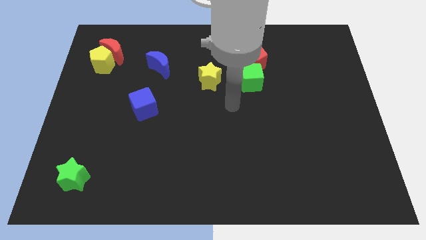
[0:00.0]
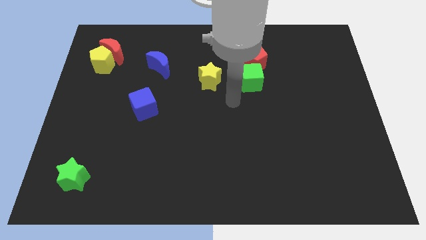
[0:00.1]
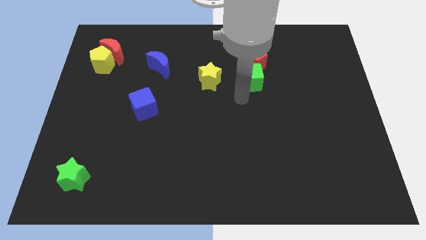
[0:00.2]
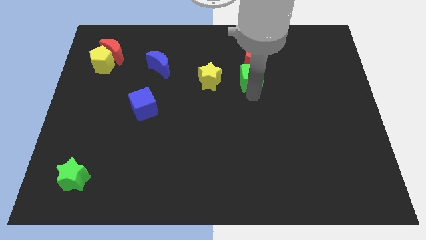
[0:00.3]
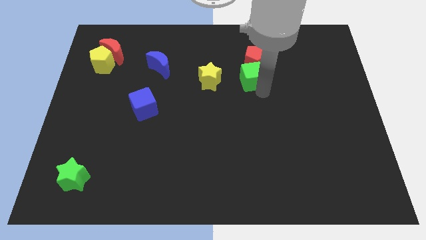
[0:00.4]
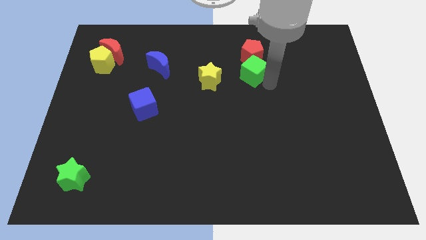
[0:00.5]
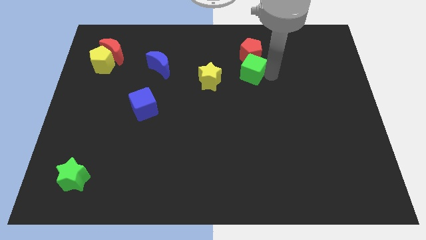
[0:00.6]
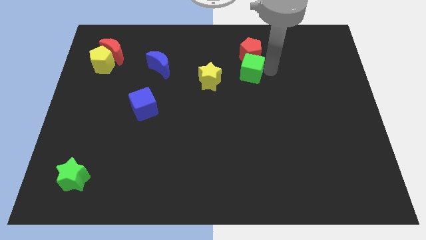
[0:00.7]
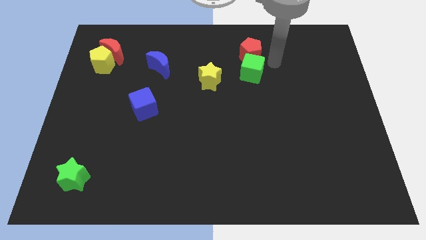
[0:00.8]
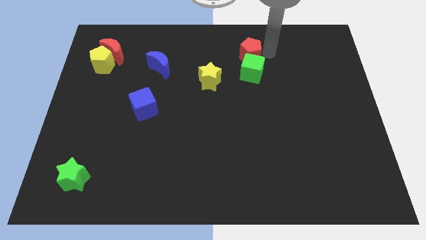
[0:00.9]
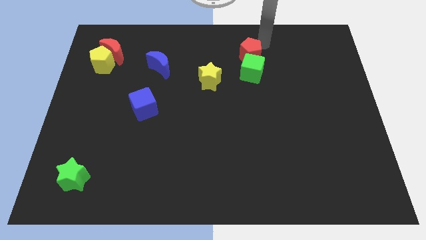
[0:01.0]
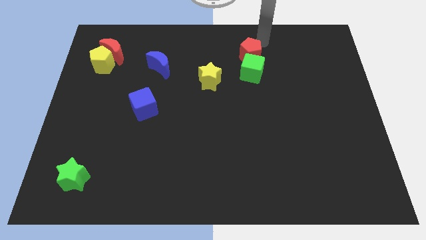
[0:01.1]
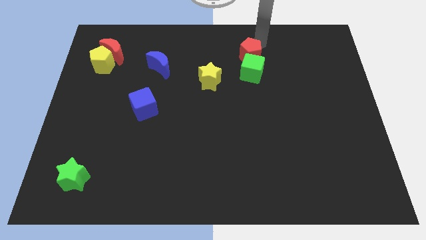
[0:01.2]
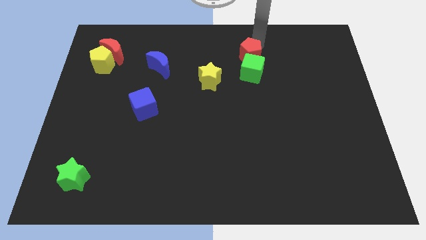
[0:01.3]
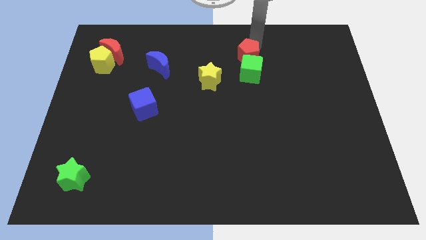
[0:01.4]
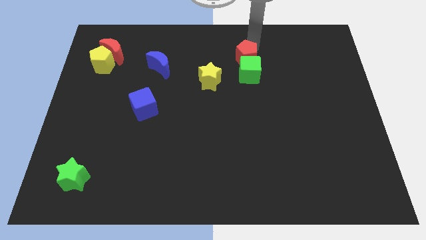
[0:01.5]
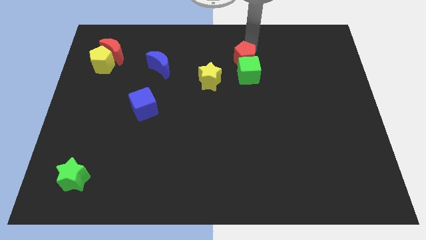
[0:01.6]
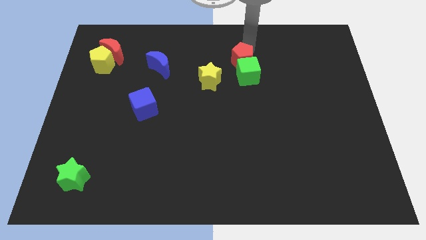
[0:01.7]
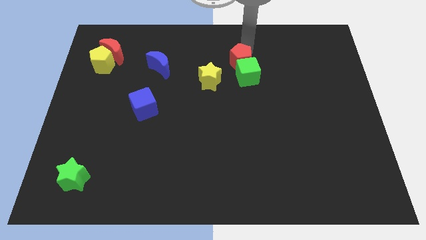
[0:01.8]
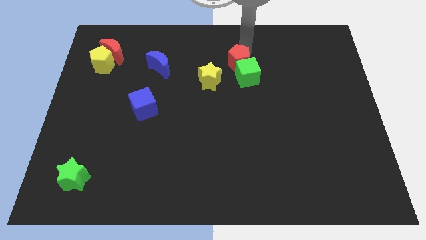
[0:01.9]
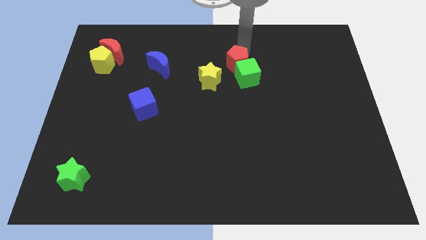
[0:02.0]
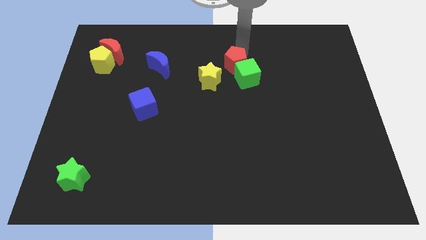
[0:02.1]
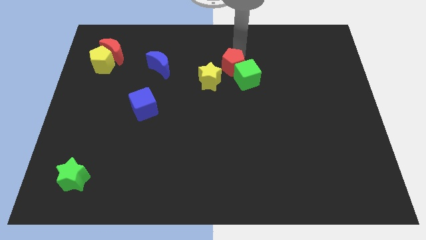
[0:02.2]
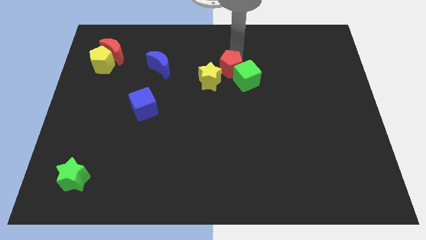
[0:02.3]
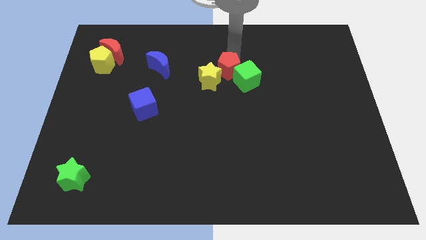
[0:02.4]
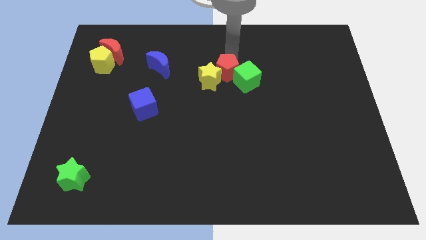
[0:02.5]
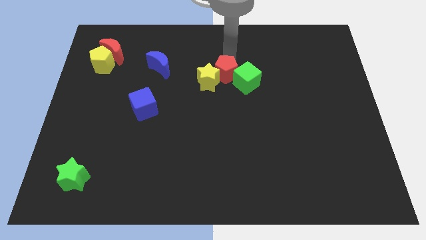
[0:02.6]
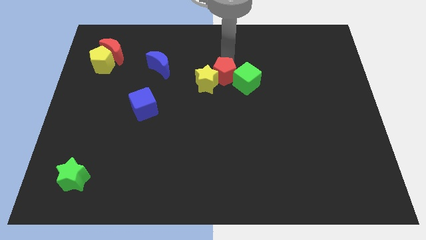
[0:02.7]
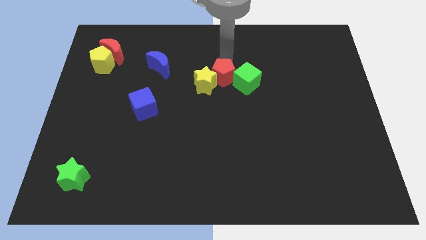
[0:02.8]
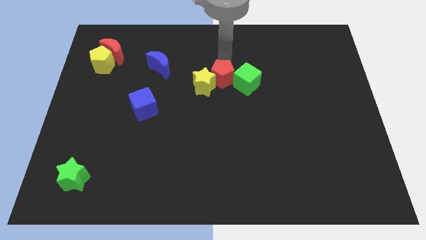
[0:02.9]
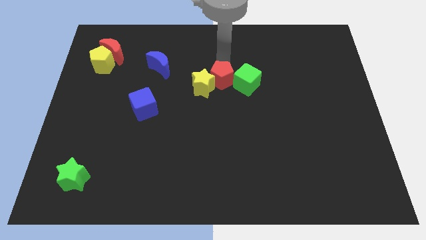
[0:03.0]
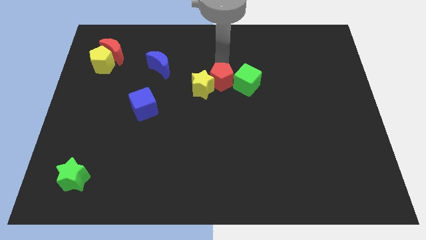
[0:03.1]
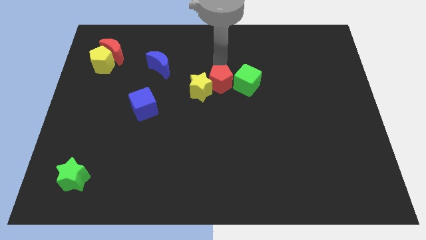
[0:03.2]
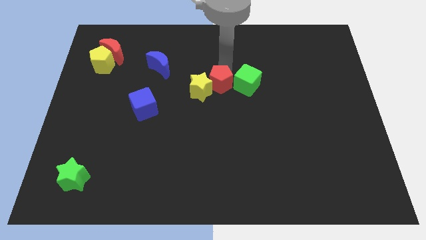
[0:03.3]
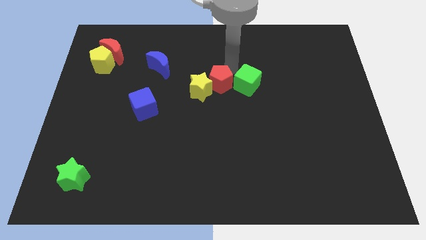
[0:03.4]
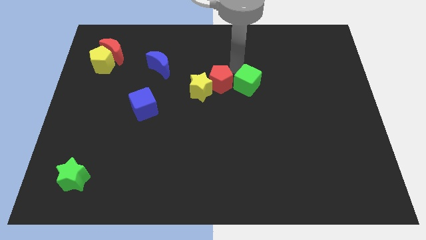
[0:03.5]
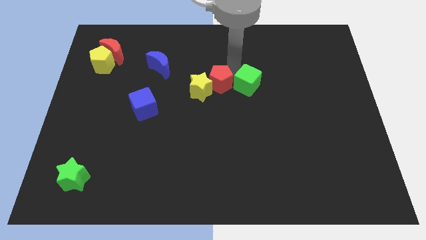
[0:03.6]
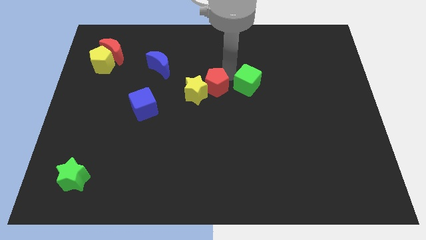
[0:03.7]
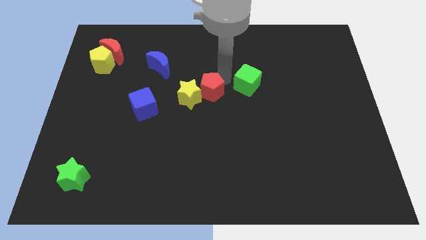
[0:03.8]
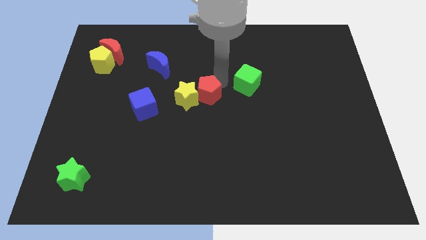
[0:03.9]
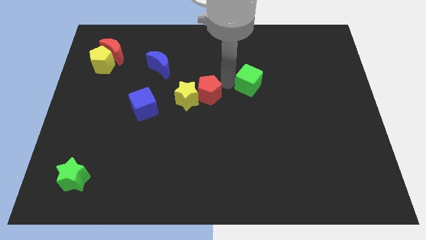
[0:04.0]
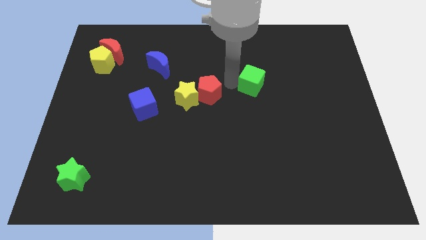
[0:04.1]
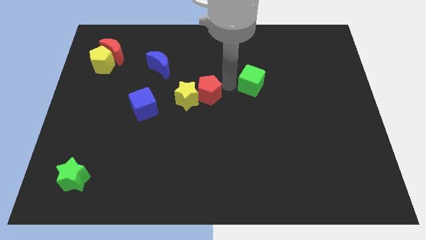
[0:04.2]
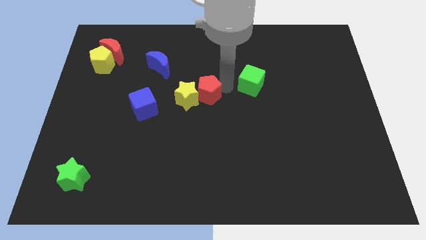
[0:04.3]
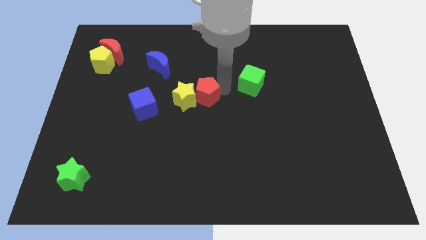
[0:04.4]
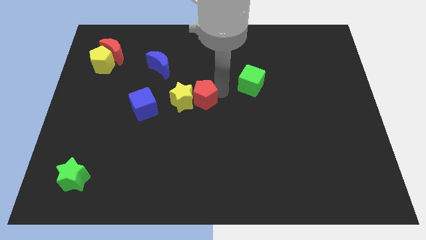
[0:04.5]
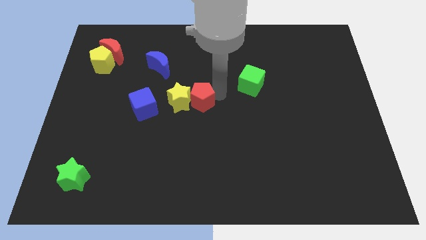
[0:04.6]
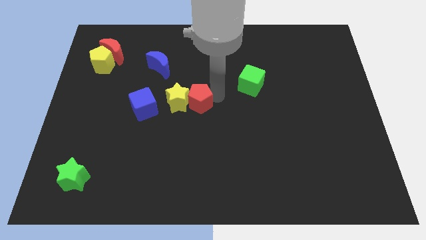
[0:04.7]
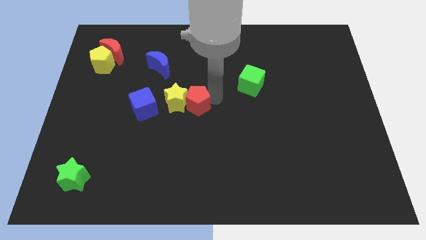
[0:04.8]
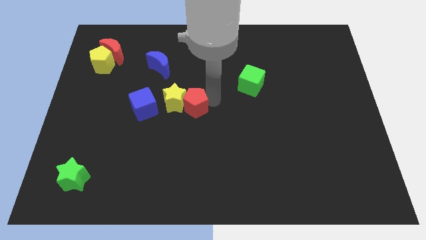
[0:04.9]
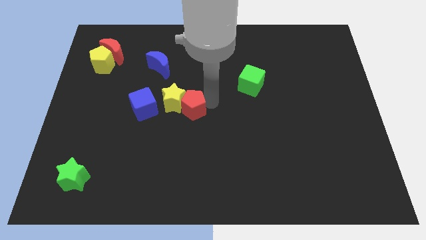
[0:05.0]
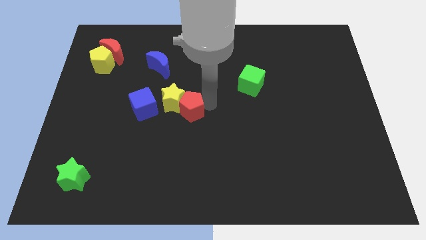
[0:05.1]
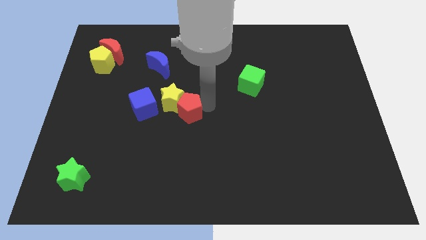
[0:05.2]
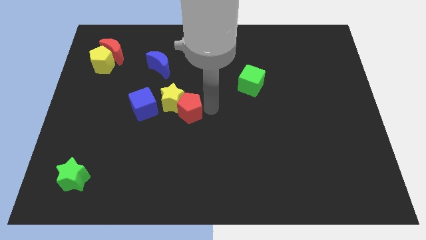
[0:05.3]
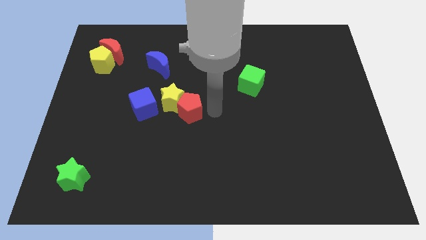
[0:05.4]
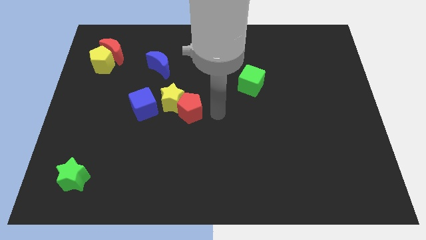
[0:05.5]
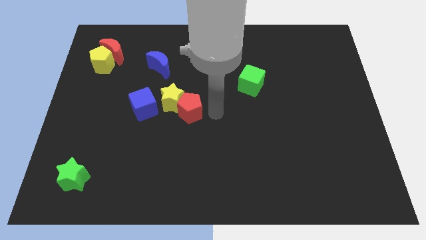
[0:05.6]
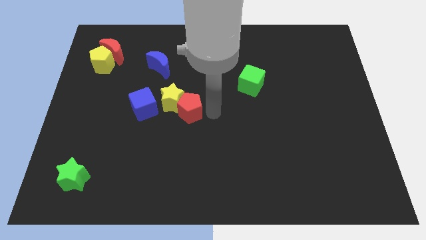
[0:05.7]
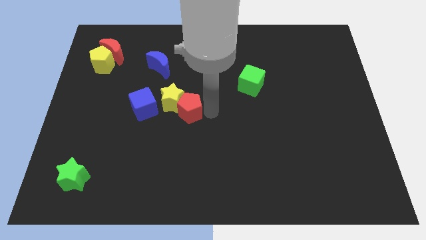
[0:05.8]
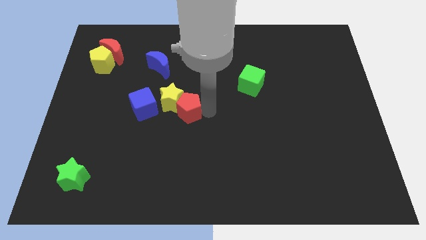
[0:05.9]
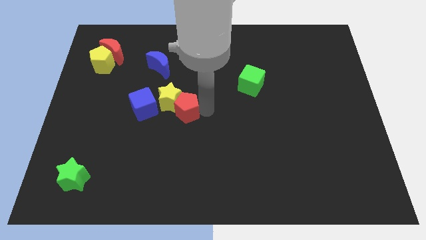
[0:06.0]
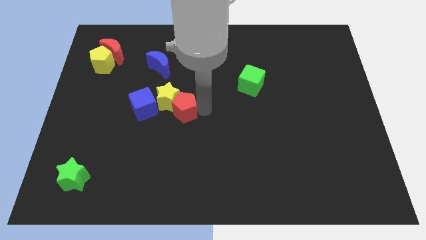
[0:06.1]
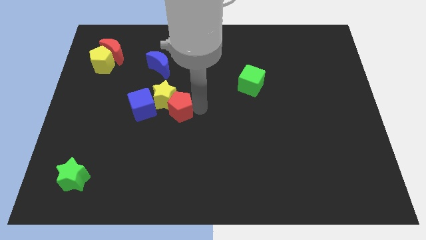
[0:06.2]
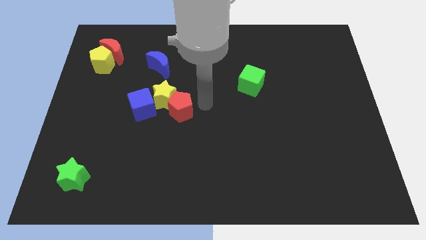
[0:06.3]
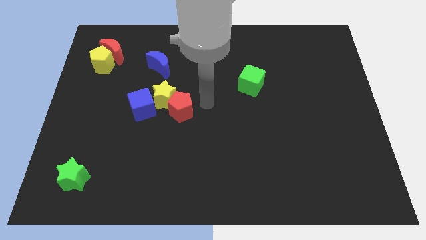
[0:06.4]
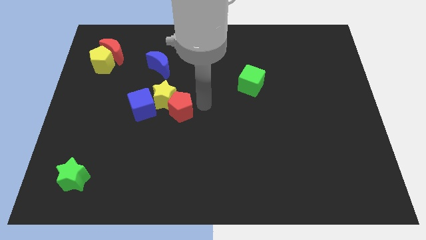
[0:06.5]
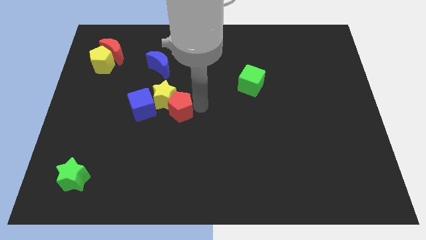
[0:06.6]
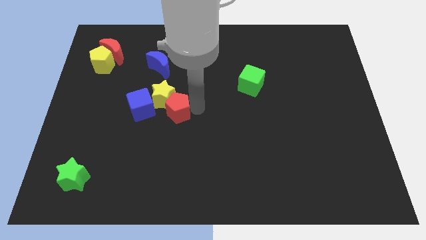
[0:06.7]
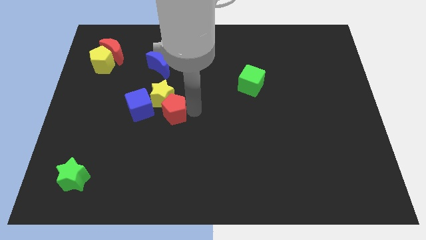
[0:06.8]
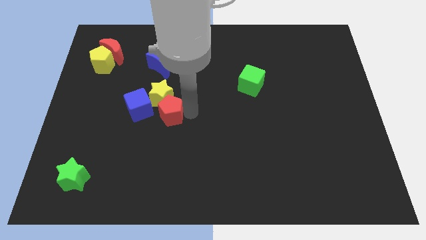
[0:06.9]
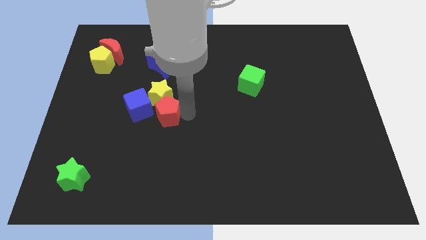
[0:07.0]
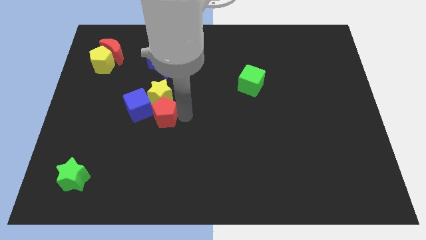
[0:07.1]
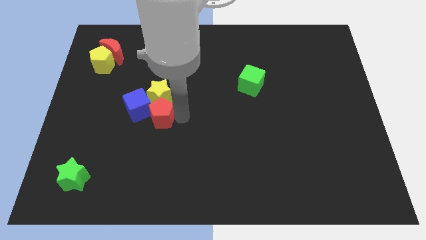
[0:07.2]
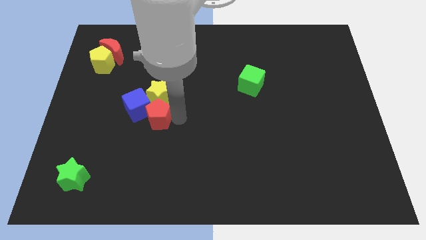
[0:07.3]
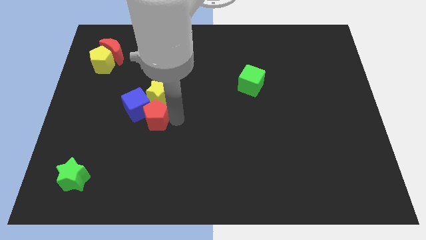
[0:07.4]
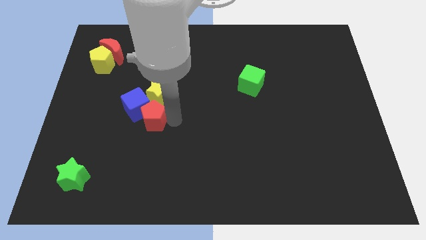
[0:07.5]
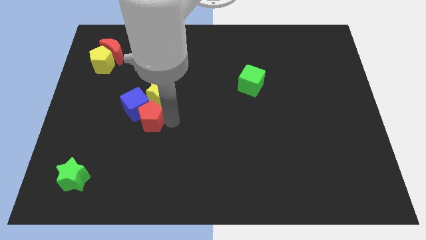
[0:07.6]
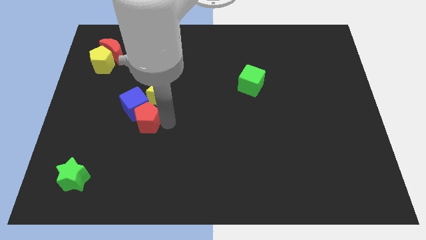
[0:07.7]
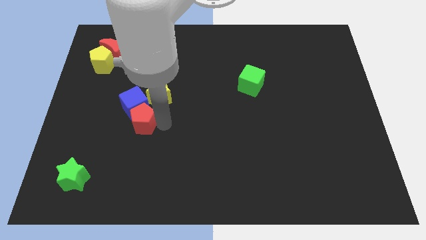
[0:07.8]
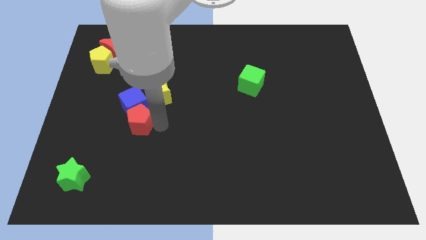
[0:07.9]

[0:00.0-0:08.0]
put the red pentagon diagonally down and to the left of the blue cube
